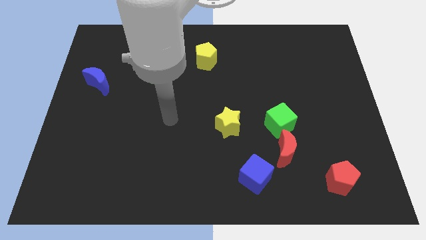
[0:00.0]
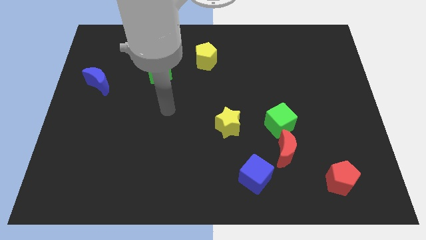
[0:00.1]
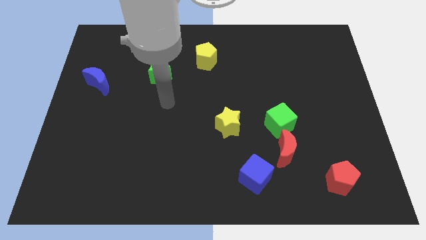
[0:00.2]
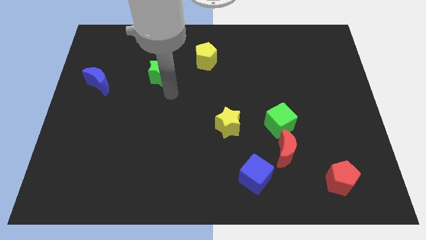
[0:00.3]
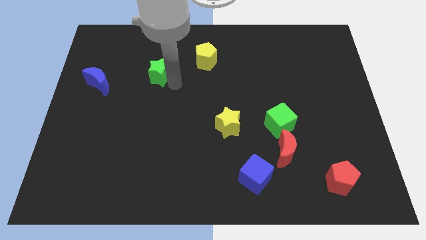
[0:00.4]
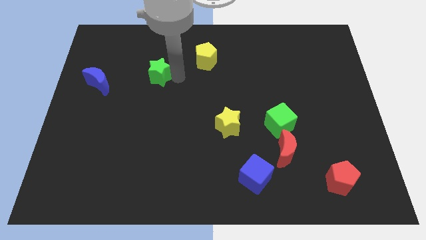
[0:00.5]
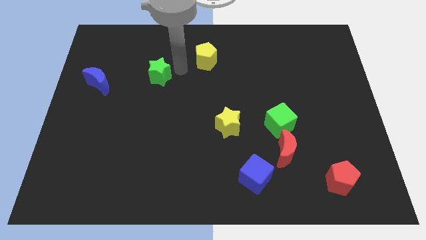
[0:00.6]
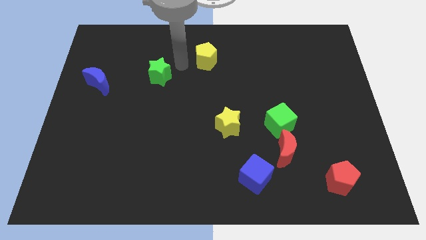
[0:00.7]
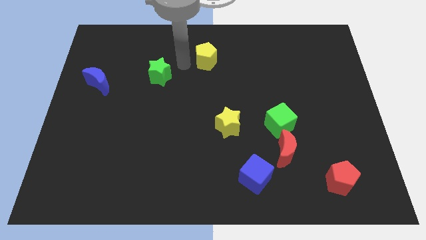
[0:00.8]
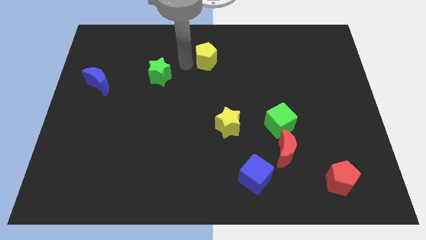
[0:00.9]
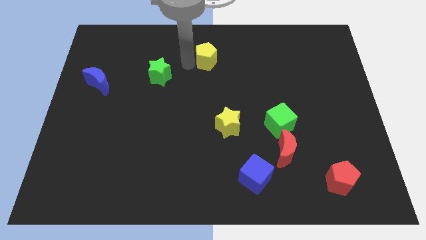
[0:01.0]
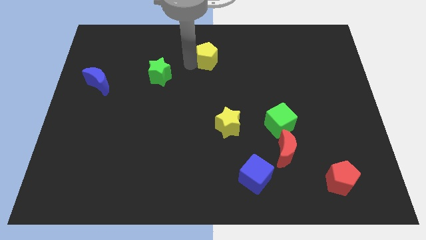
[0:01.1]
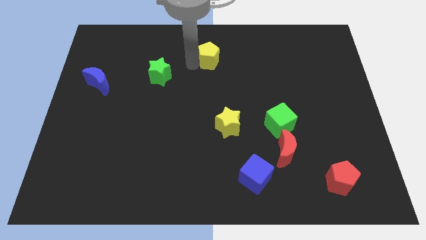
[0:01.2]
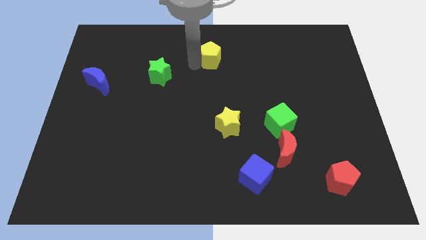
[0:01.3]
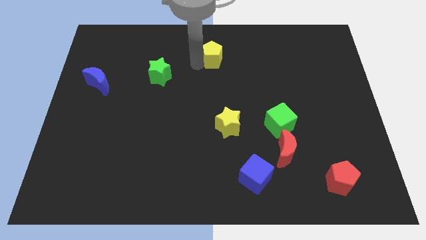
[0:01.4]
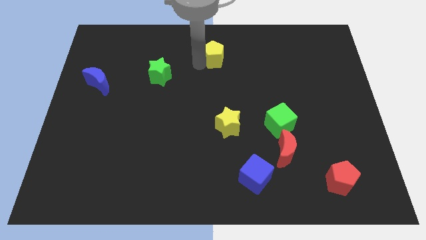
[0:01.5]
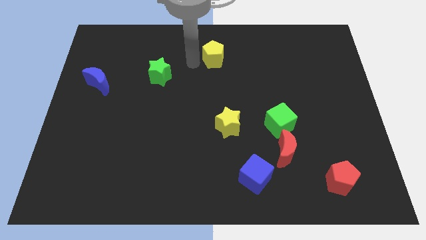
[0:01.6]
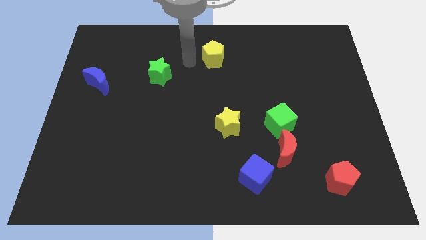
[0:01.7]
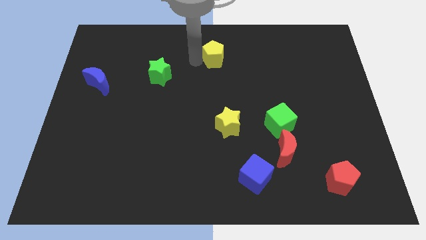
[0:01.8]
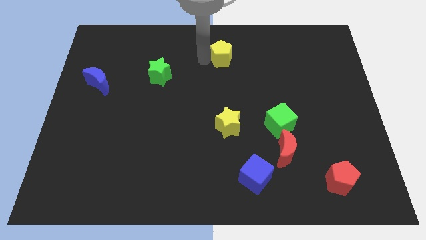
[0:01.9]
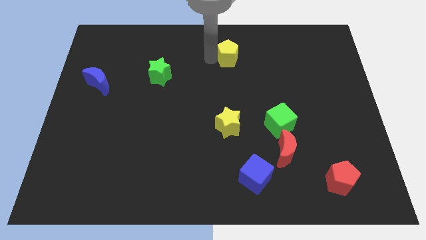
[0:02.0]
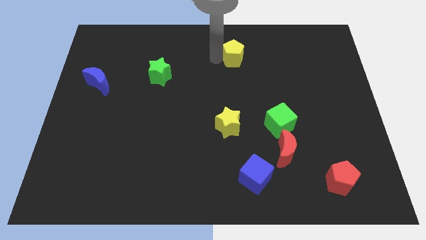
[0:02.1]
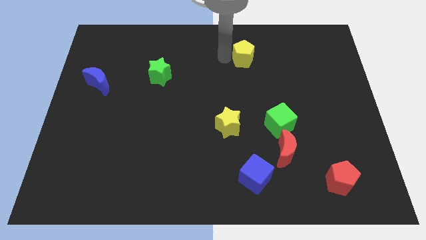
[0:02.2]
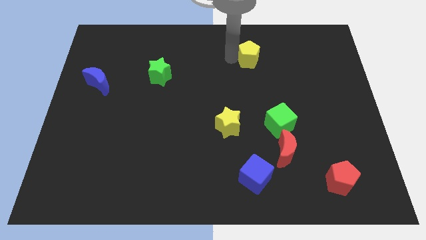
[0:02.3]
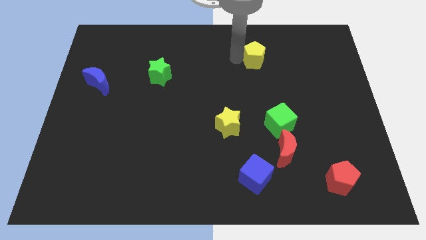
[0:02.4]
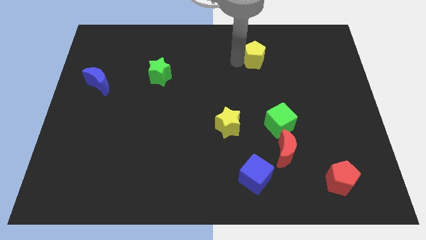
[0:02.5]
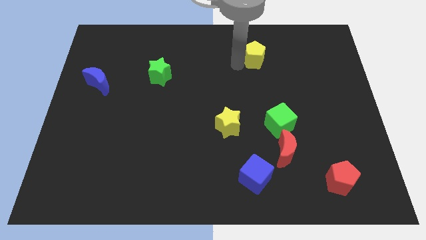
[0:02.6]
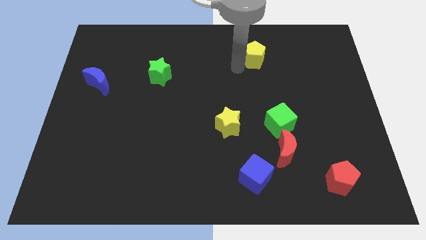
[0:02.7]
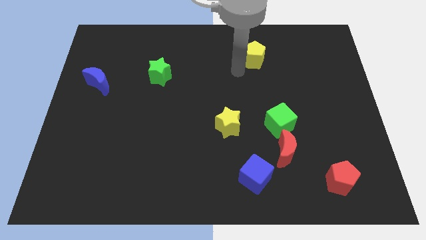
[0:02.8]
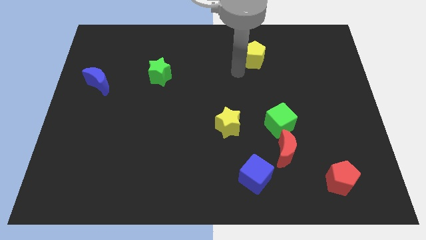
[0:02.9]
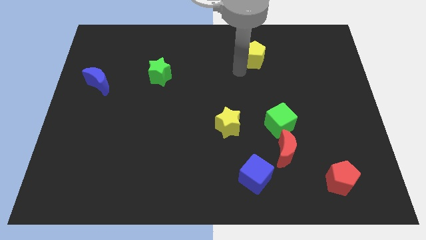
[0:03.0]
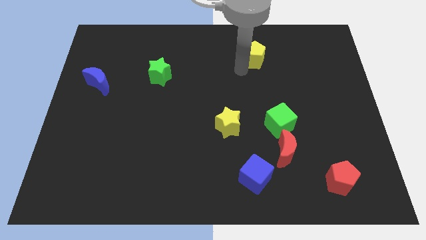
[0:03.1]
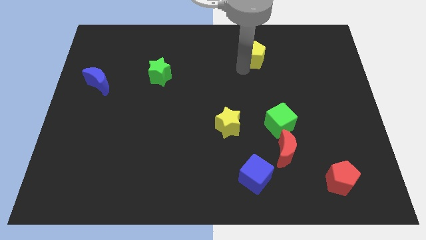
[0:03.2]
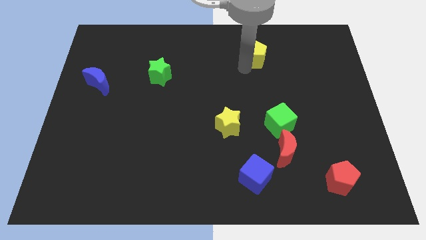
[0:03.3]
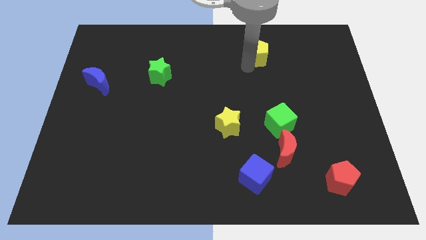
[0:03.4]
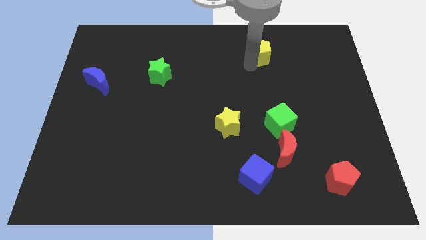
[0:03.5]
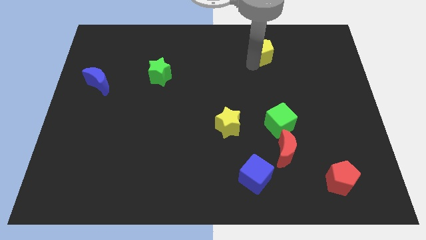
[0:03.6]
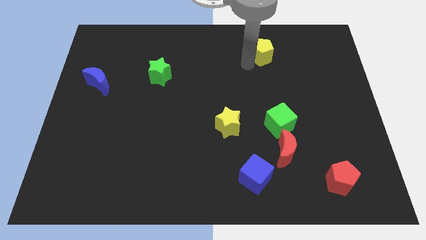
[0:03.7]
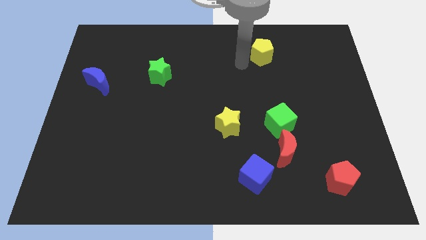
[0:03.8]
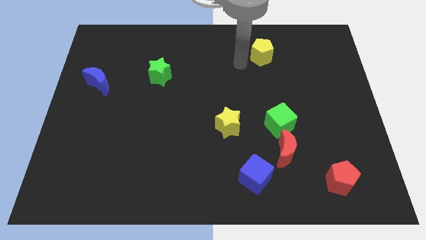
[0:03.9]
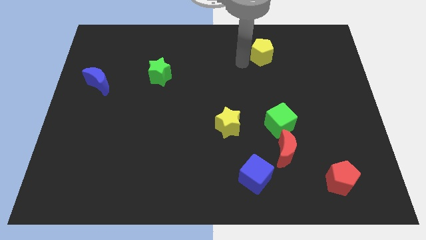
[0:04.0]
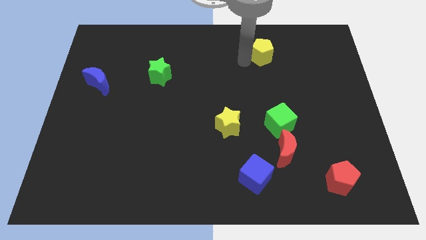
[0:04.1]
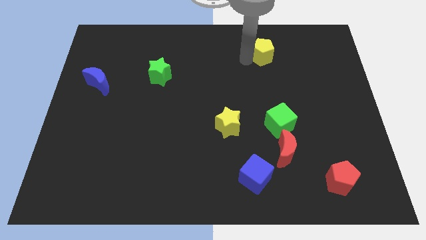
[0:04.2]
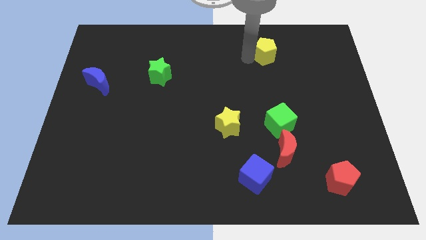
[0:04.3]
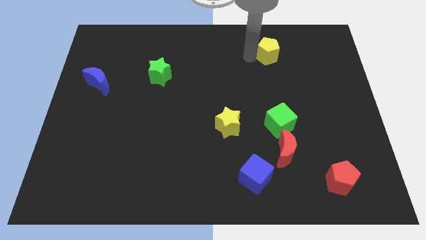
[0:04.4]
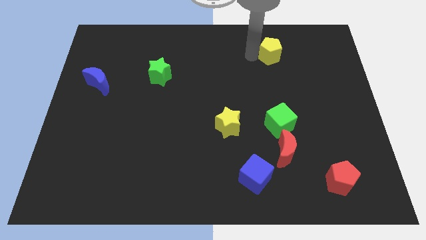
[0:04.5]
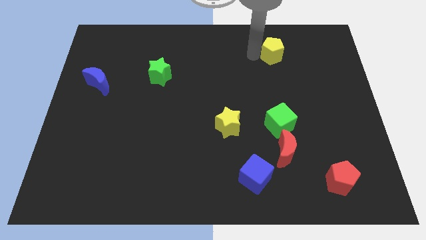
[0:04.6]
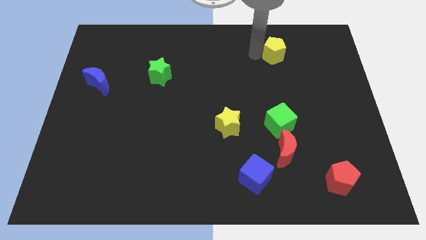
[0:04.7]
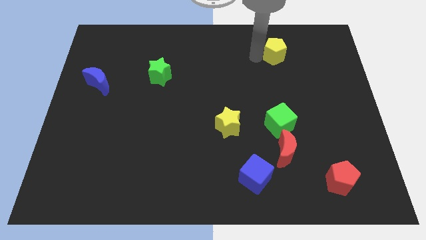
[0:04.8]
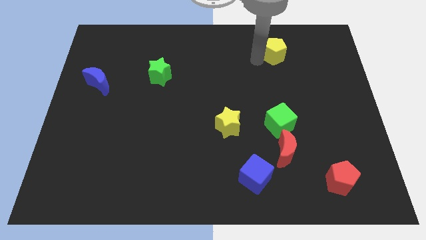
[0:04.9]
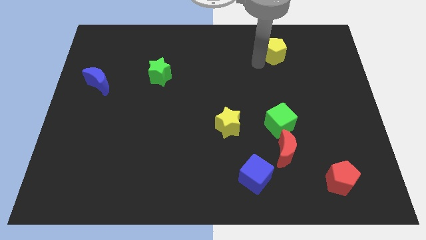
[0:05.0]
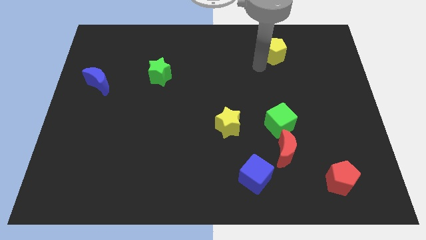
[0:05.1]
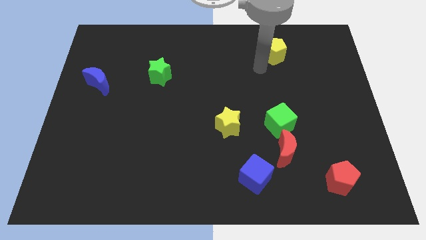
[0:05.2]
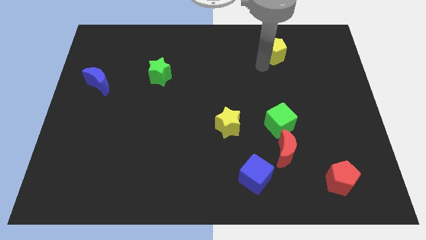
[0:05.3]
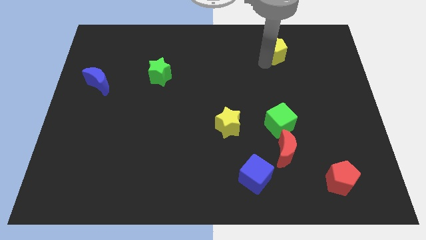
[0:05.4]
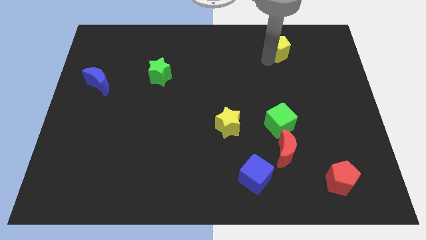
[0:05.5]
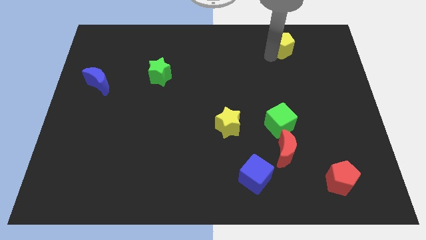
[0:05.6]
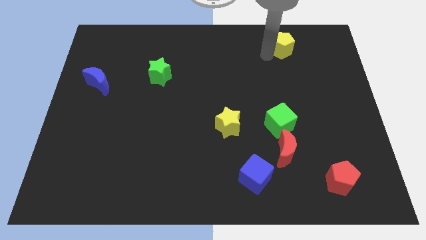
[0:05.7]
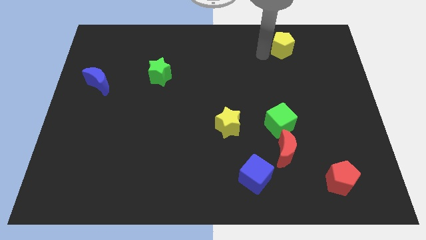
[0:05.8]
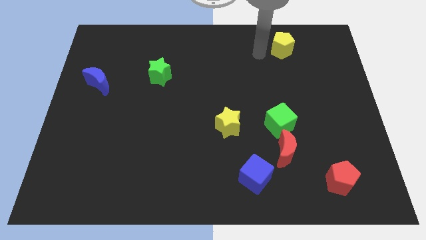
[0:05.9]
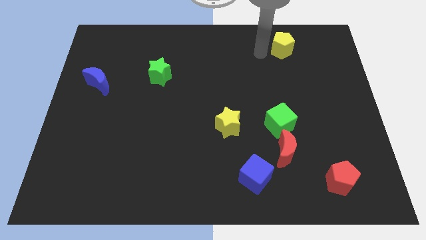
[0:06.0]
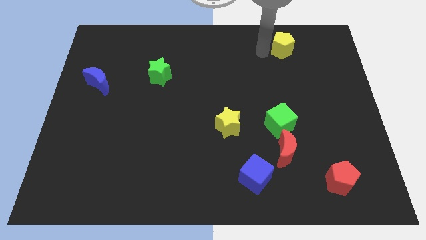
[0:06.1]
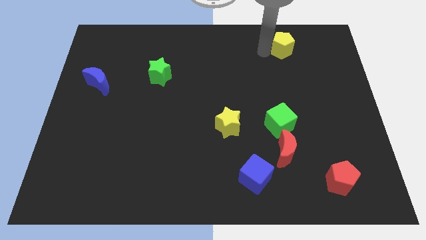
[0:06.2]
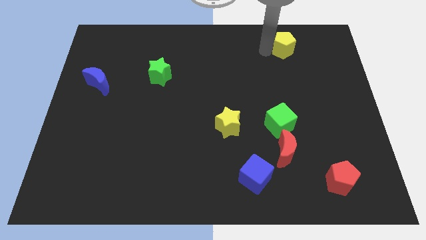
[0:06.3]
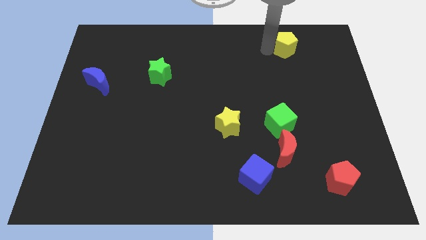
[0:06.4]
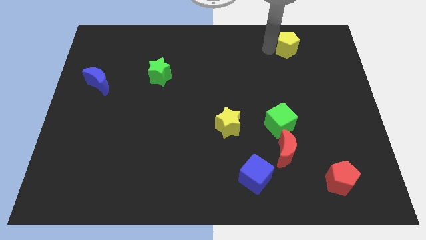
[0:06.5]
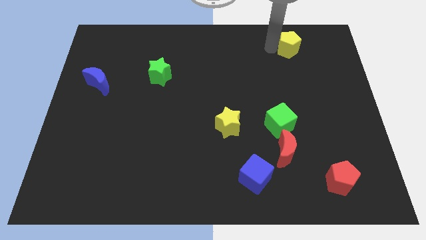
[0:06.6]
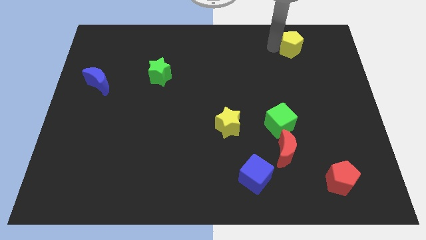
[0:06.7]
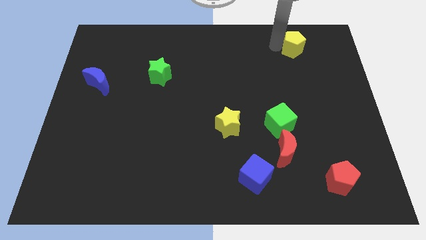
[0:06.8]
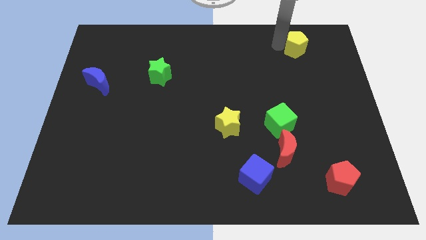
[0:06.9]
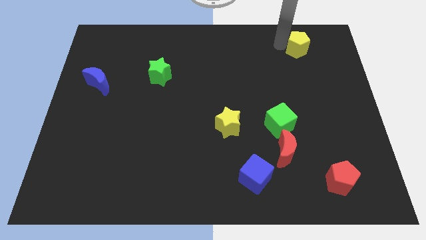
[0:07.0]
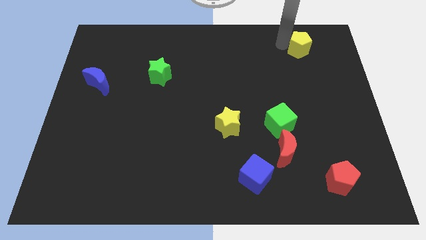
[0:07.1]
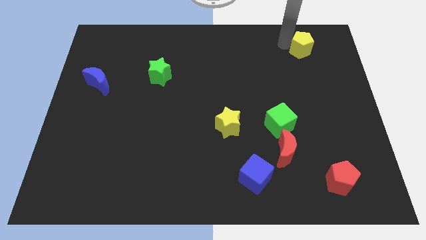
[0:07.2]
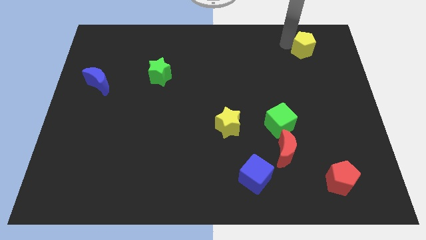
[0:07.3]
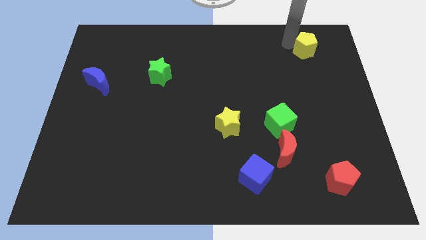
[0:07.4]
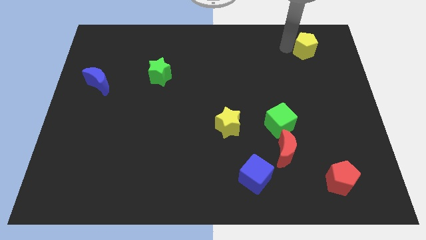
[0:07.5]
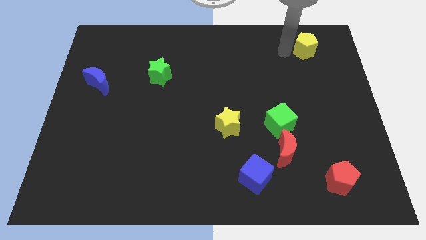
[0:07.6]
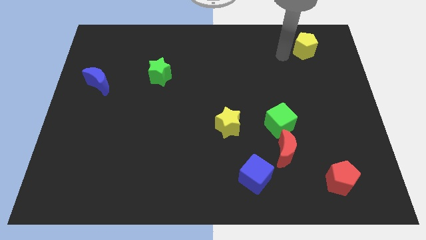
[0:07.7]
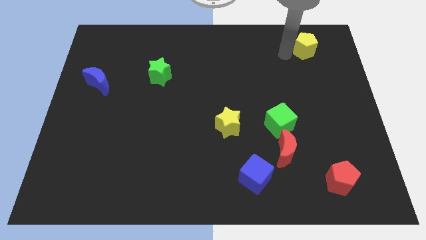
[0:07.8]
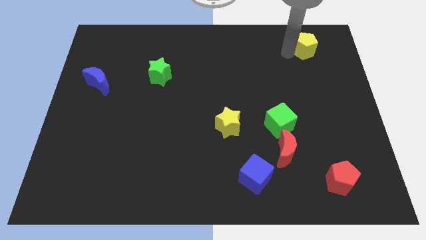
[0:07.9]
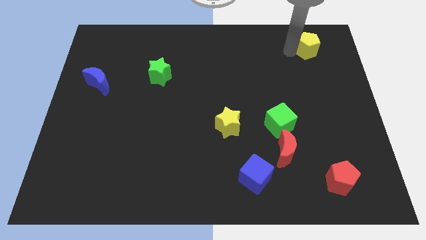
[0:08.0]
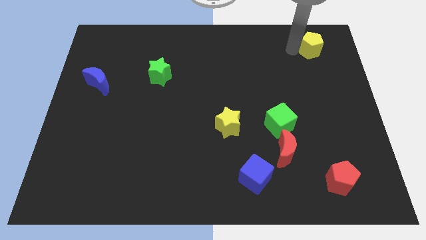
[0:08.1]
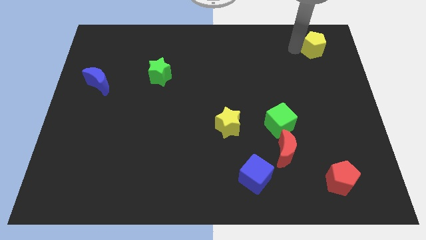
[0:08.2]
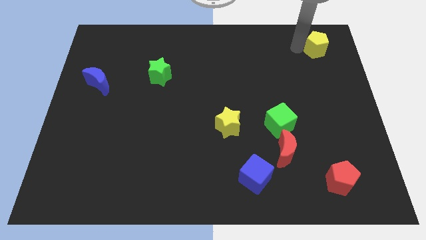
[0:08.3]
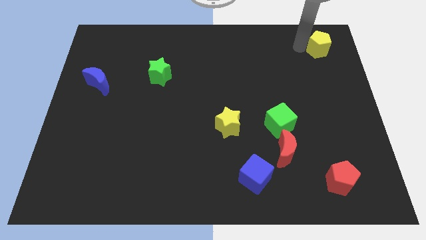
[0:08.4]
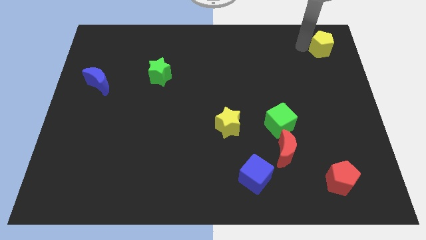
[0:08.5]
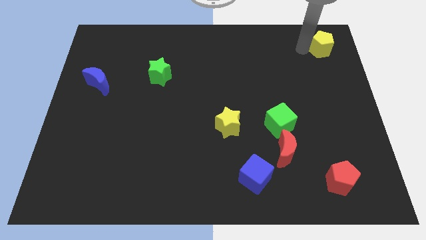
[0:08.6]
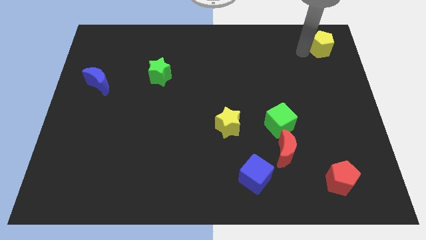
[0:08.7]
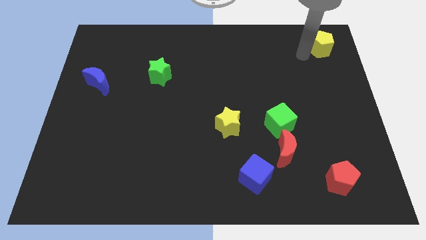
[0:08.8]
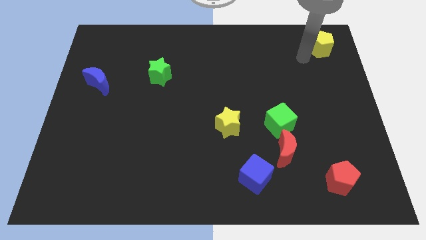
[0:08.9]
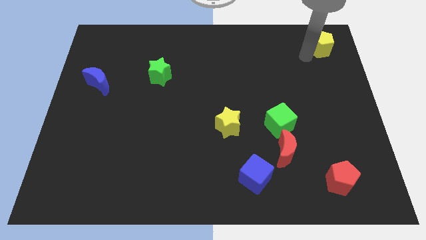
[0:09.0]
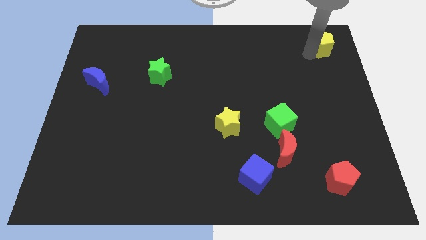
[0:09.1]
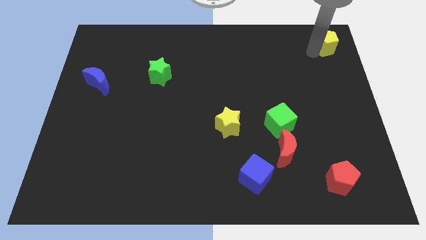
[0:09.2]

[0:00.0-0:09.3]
push the yellow pentagon to the top right of the board
